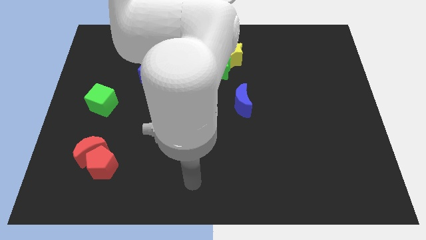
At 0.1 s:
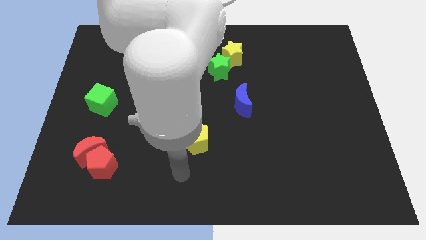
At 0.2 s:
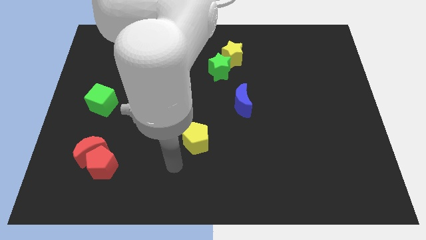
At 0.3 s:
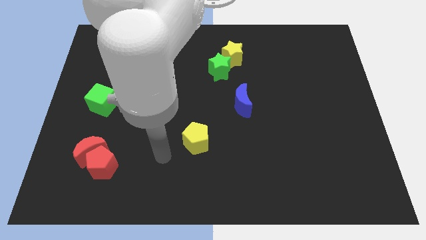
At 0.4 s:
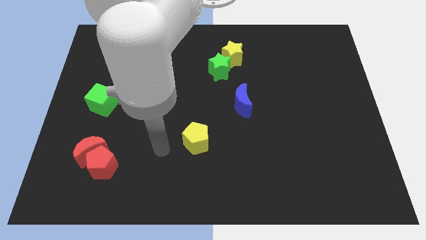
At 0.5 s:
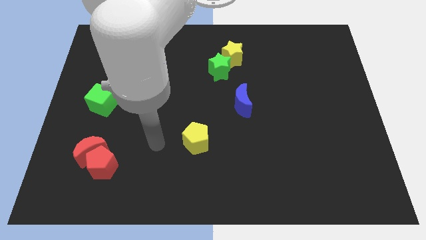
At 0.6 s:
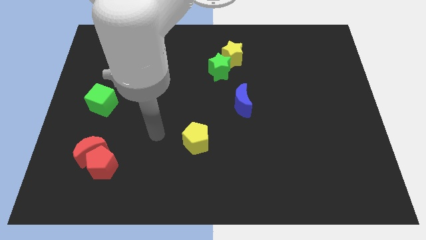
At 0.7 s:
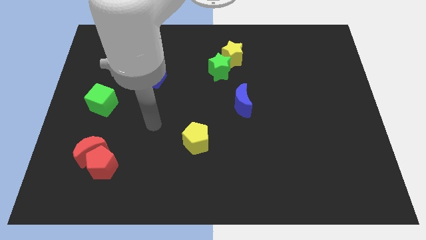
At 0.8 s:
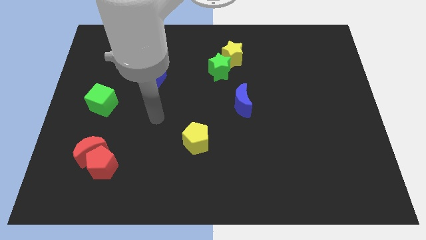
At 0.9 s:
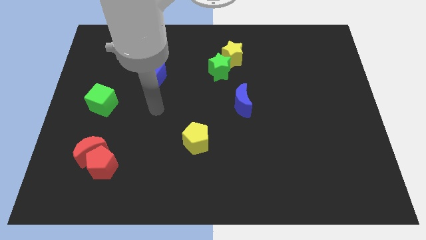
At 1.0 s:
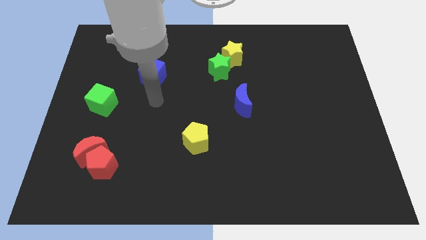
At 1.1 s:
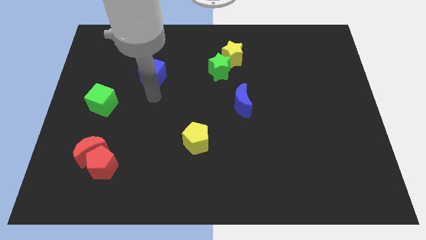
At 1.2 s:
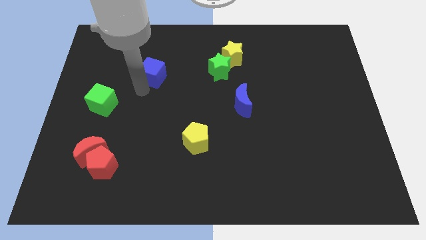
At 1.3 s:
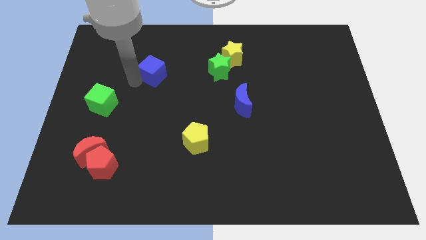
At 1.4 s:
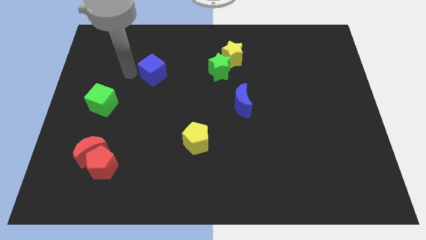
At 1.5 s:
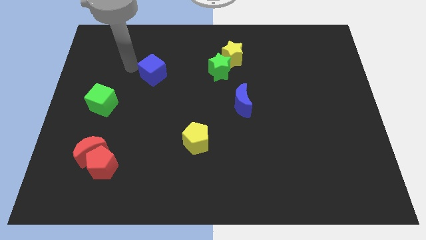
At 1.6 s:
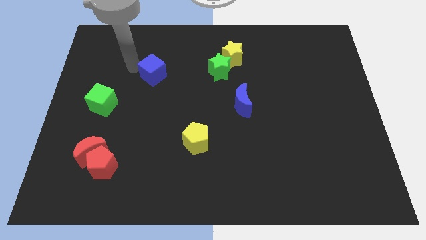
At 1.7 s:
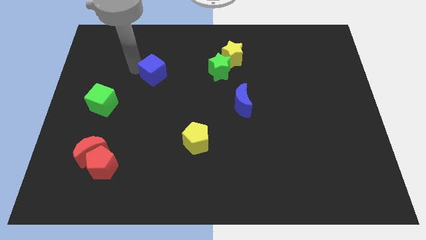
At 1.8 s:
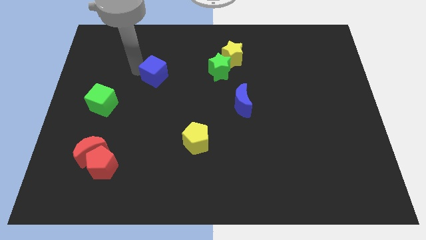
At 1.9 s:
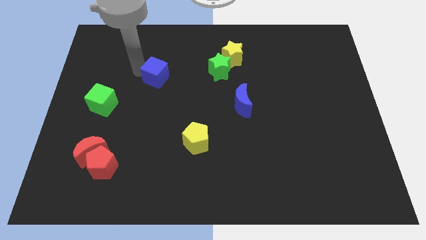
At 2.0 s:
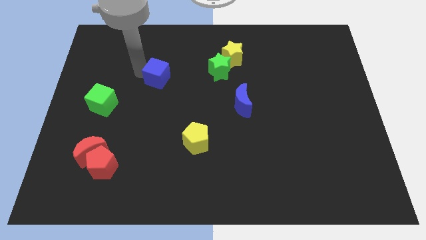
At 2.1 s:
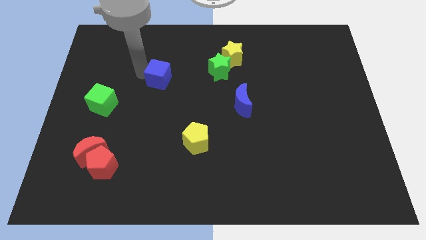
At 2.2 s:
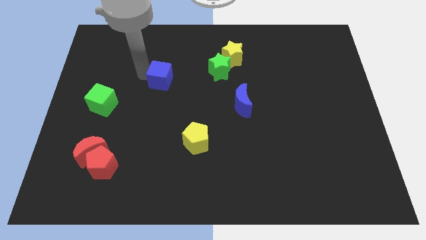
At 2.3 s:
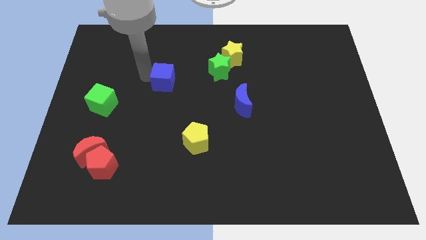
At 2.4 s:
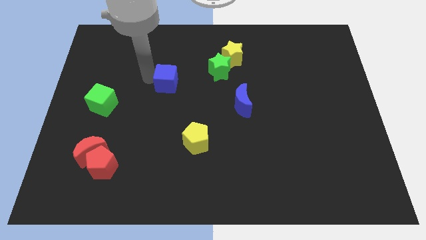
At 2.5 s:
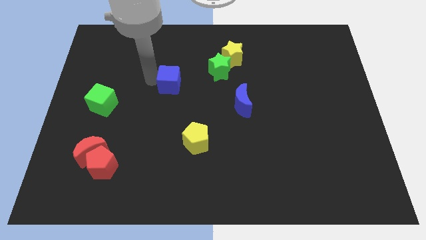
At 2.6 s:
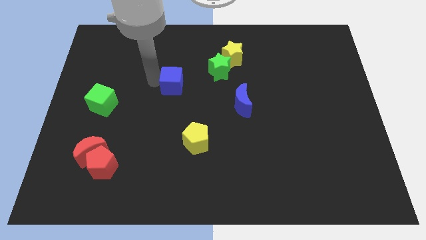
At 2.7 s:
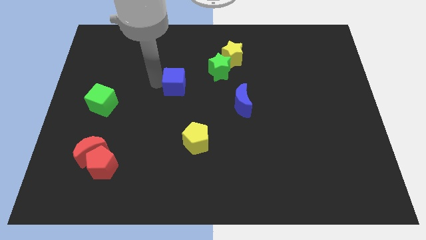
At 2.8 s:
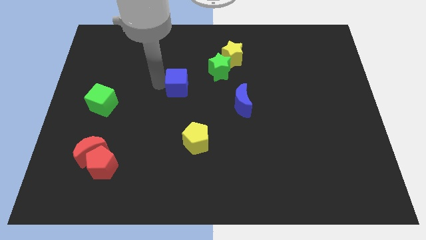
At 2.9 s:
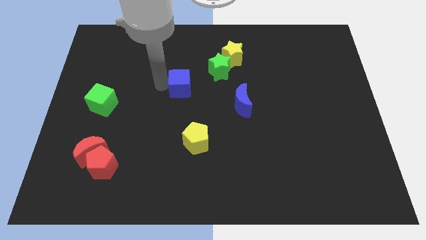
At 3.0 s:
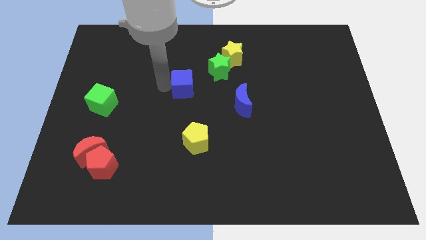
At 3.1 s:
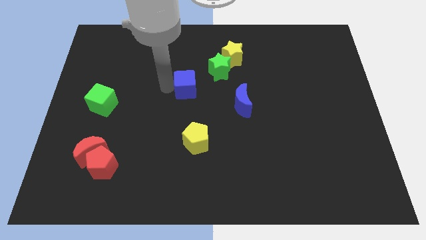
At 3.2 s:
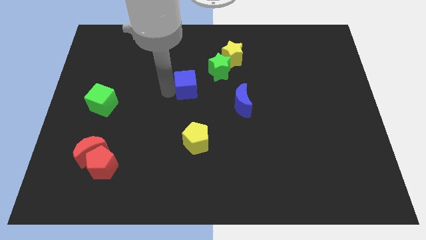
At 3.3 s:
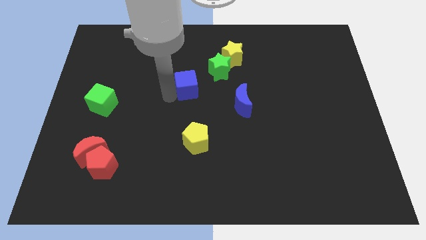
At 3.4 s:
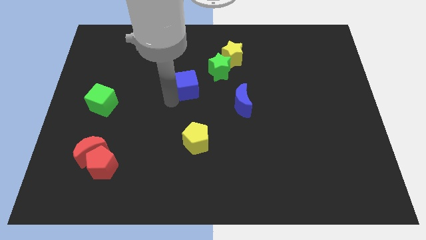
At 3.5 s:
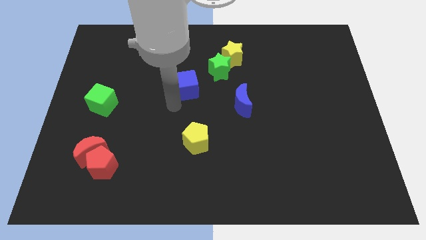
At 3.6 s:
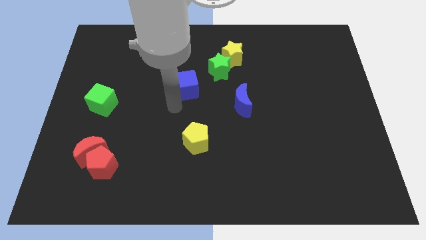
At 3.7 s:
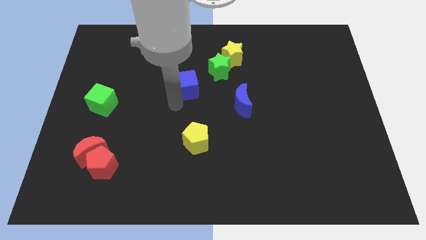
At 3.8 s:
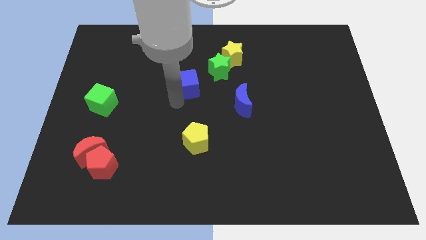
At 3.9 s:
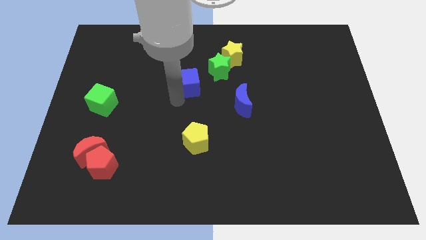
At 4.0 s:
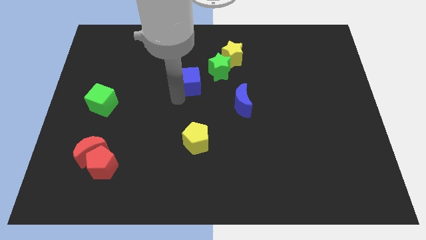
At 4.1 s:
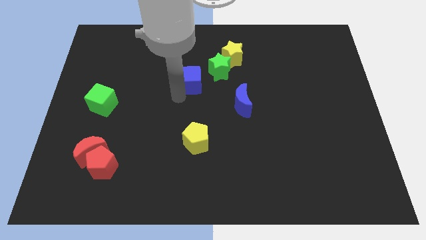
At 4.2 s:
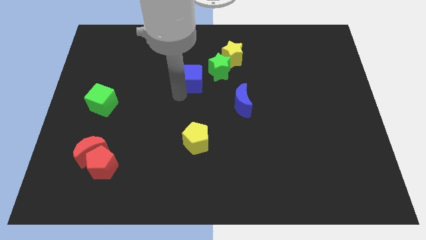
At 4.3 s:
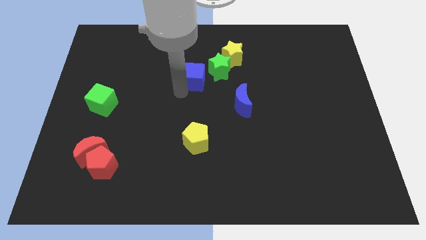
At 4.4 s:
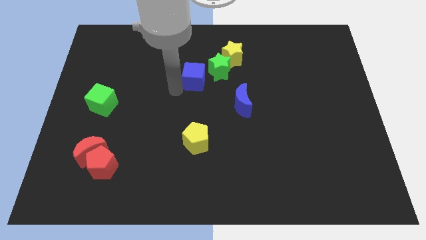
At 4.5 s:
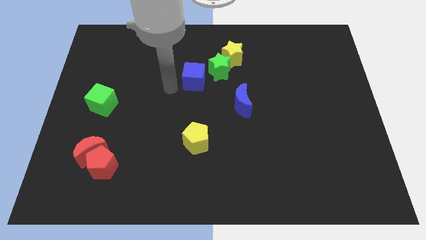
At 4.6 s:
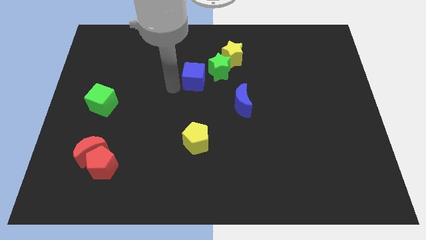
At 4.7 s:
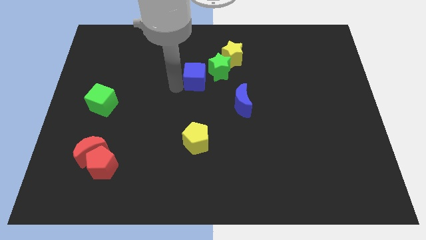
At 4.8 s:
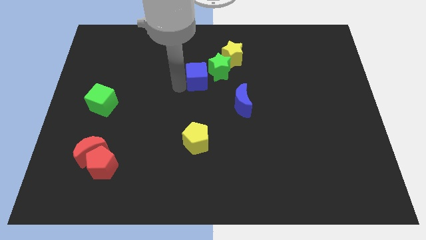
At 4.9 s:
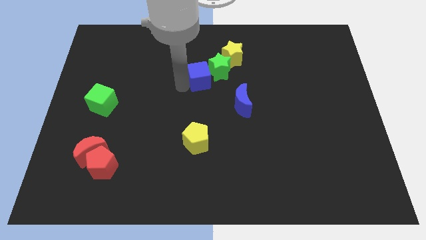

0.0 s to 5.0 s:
slide the blue cube to the green star

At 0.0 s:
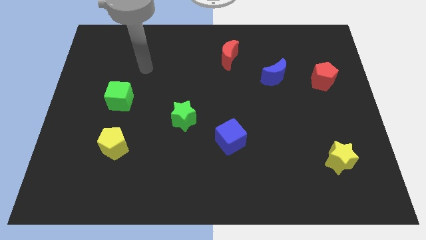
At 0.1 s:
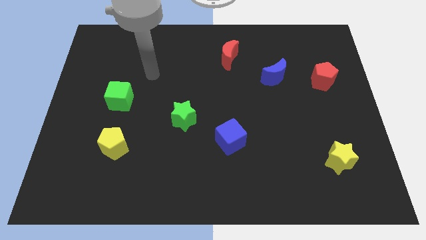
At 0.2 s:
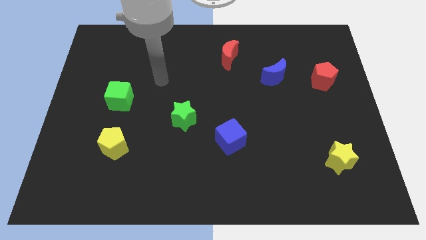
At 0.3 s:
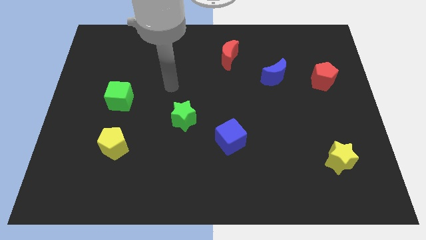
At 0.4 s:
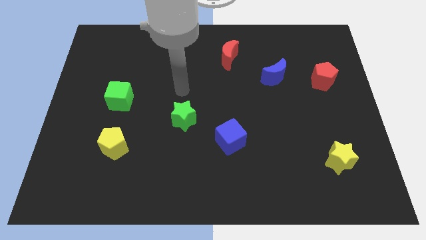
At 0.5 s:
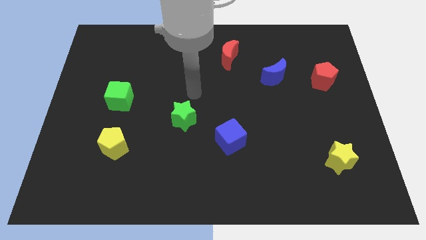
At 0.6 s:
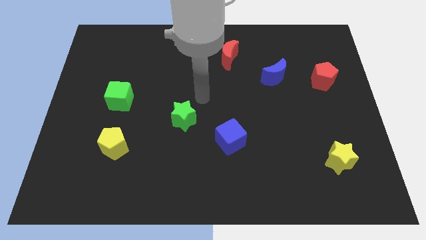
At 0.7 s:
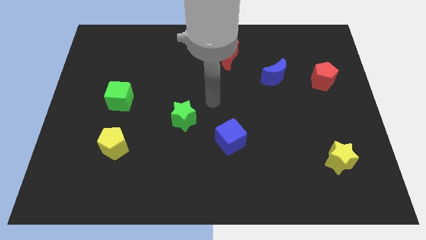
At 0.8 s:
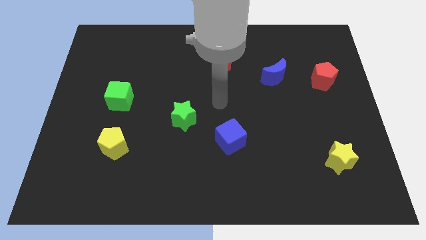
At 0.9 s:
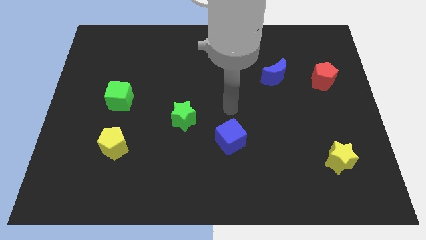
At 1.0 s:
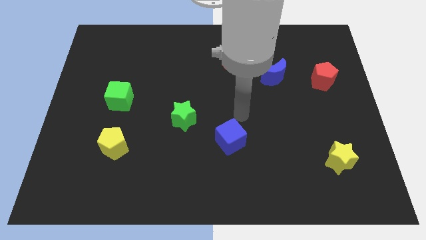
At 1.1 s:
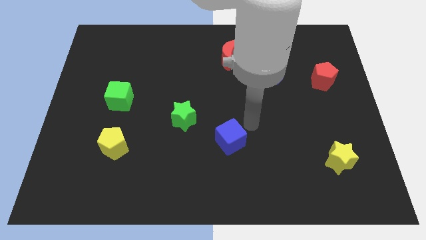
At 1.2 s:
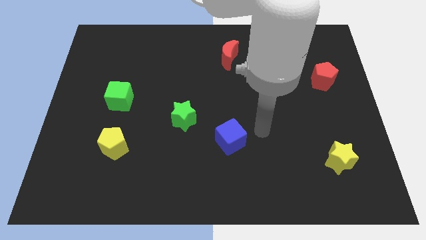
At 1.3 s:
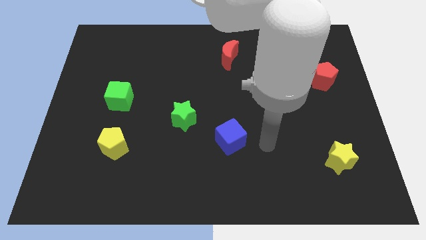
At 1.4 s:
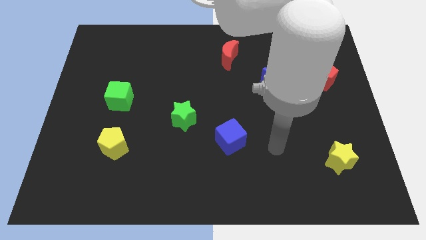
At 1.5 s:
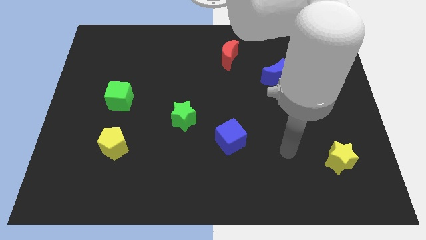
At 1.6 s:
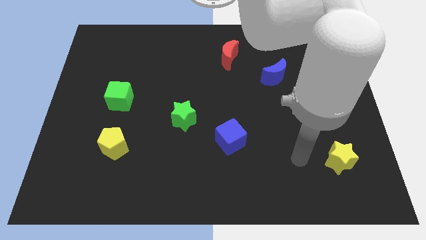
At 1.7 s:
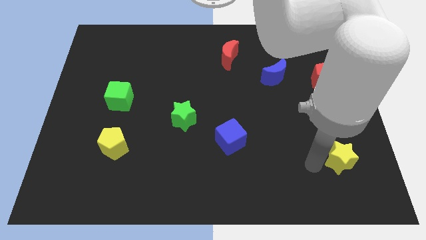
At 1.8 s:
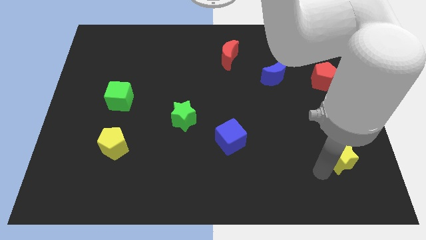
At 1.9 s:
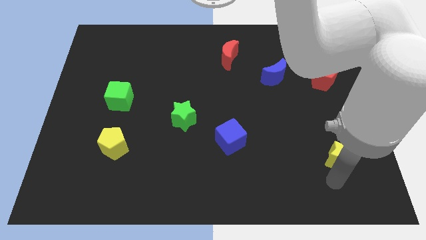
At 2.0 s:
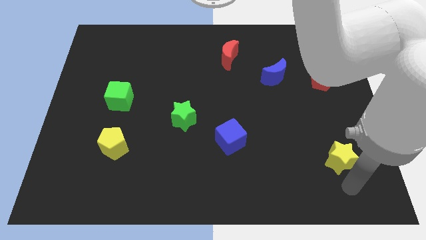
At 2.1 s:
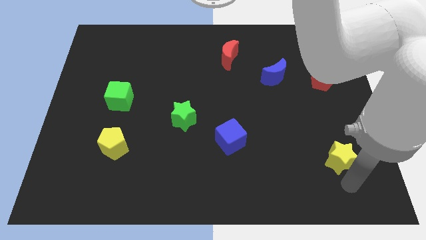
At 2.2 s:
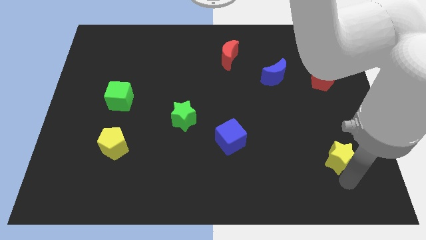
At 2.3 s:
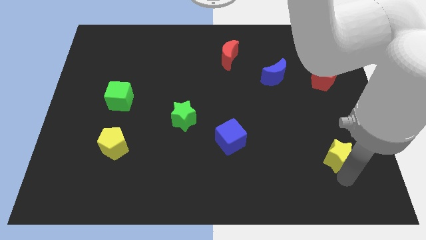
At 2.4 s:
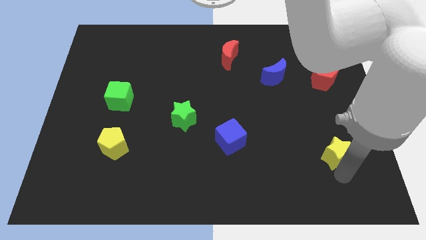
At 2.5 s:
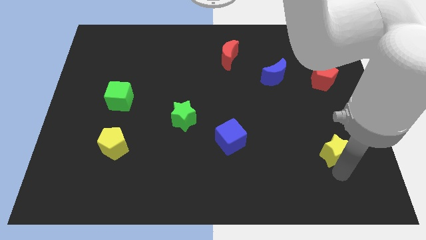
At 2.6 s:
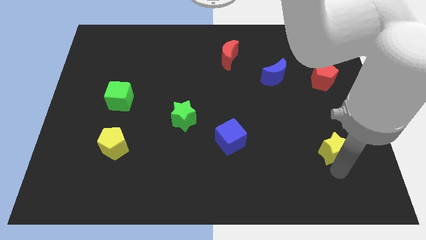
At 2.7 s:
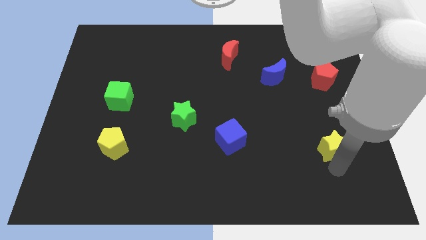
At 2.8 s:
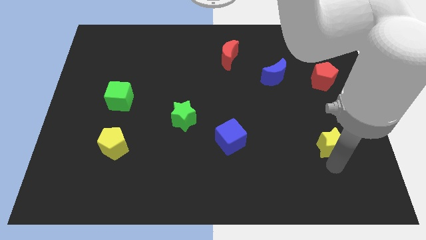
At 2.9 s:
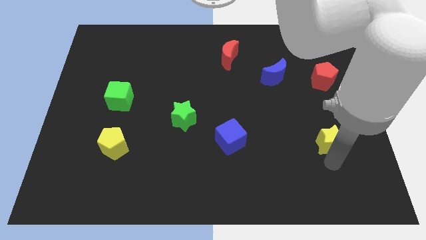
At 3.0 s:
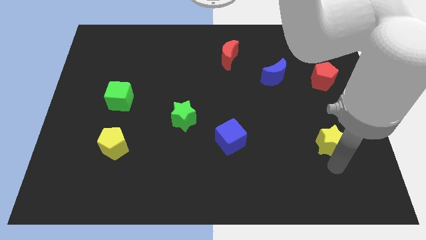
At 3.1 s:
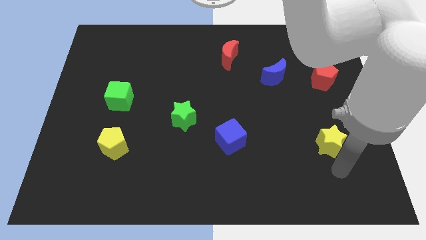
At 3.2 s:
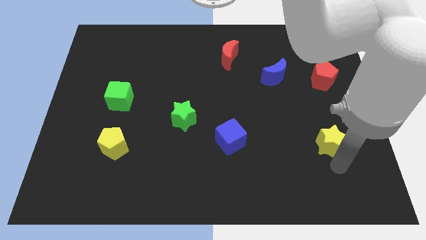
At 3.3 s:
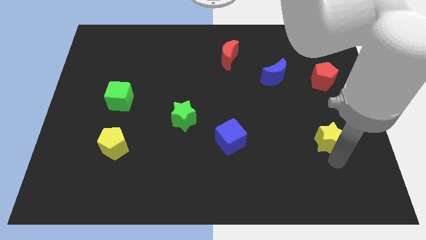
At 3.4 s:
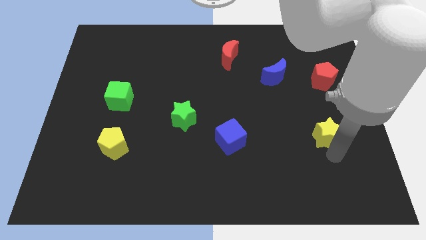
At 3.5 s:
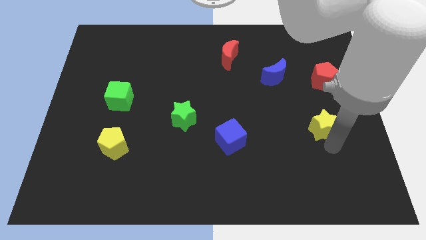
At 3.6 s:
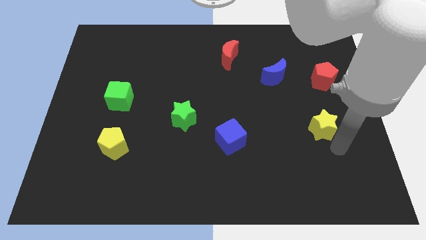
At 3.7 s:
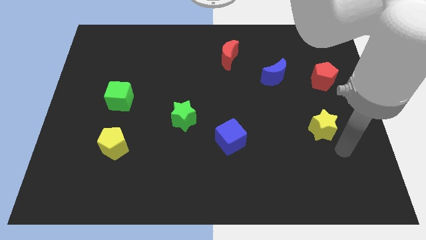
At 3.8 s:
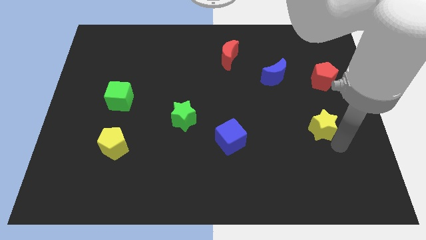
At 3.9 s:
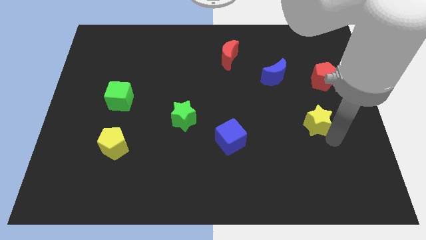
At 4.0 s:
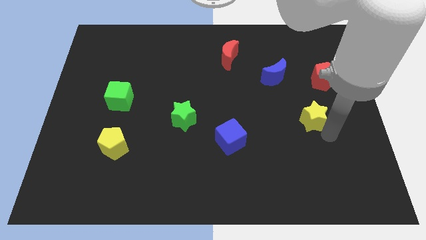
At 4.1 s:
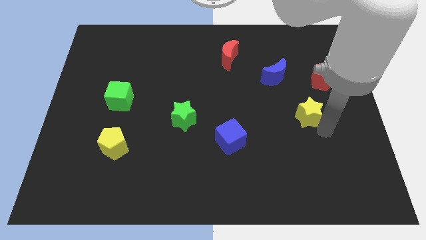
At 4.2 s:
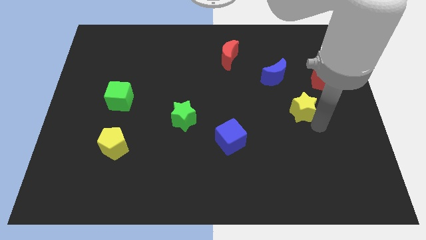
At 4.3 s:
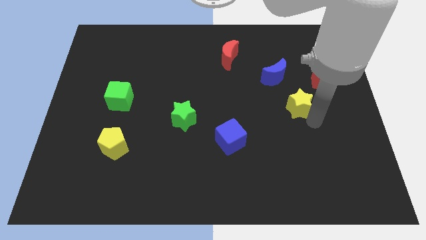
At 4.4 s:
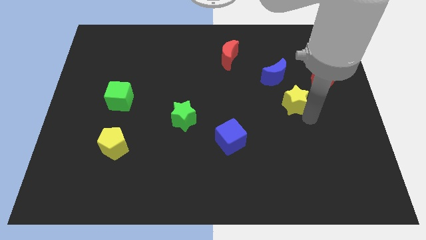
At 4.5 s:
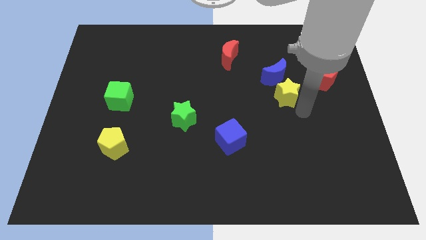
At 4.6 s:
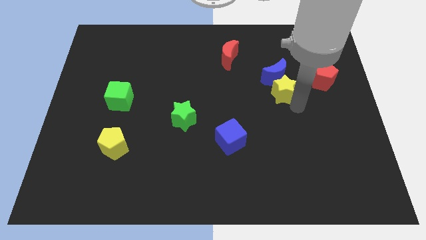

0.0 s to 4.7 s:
put the yellow star towards the blue moon
